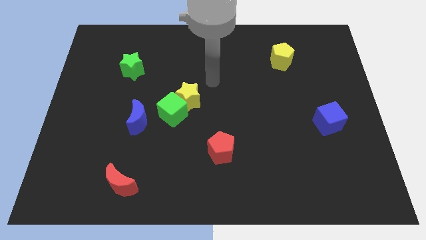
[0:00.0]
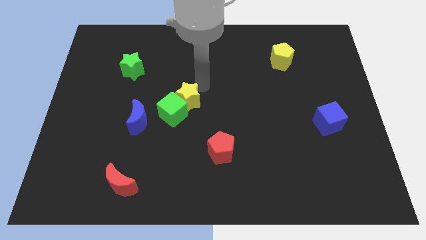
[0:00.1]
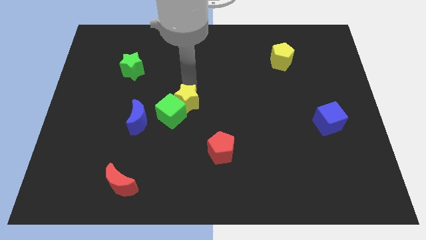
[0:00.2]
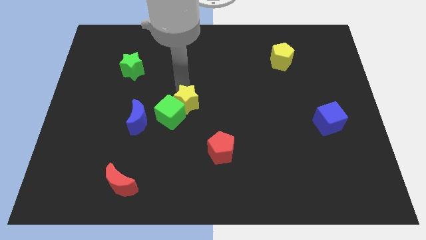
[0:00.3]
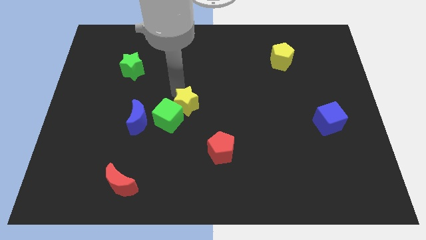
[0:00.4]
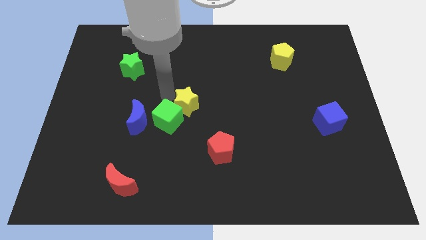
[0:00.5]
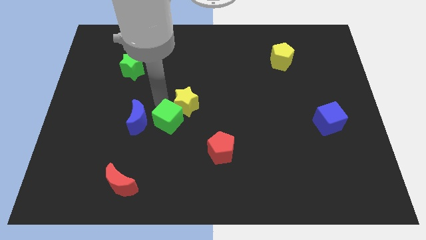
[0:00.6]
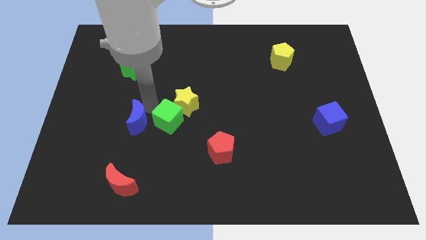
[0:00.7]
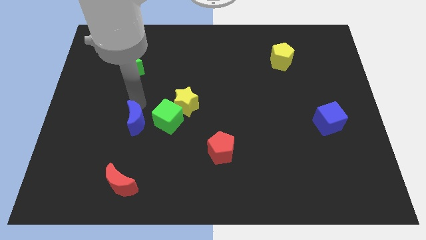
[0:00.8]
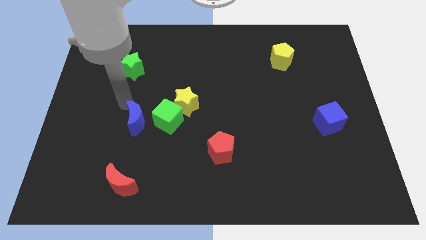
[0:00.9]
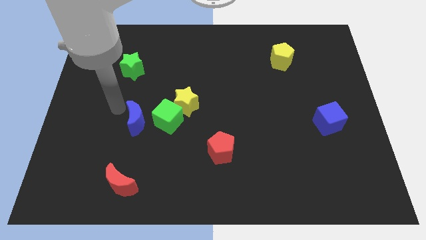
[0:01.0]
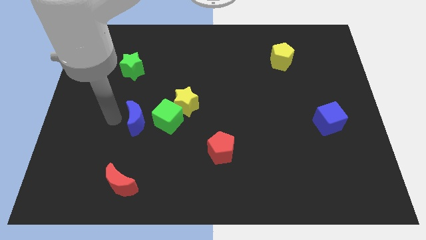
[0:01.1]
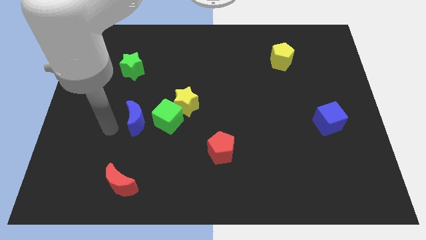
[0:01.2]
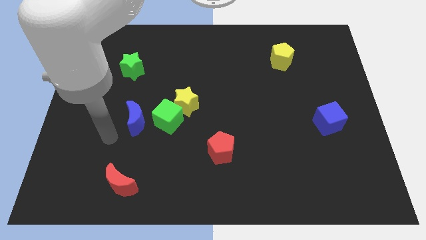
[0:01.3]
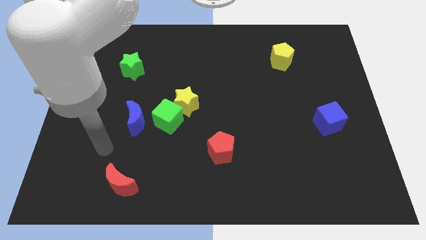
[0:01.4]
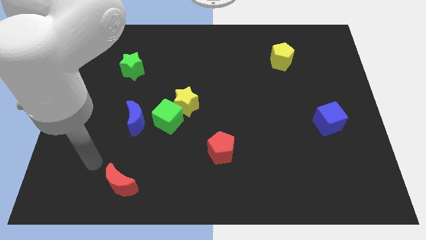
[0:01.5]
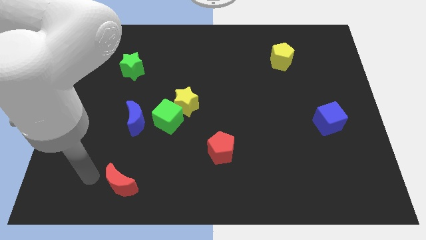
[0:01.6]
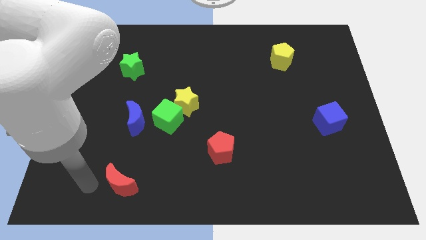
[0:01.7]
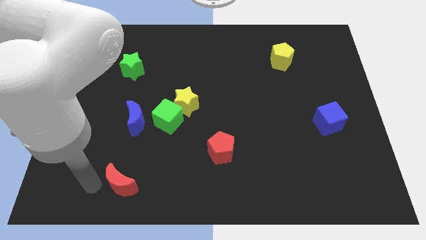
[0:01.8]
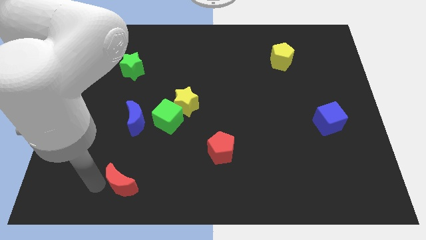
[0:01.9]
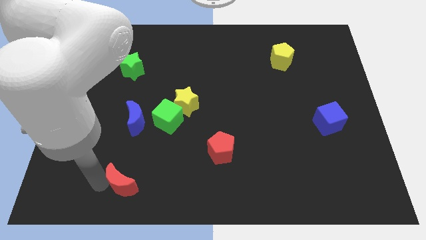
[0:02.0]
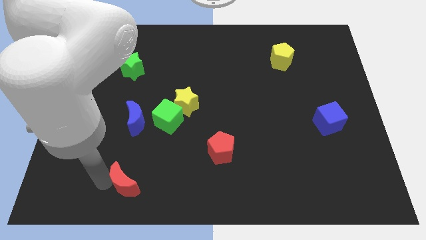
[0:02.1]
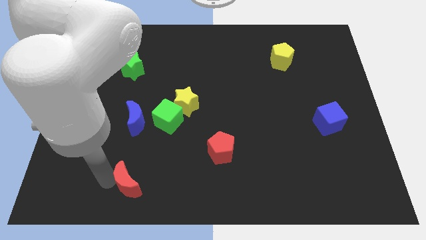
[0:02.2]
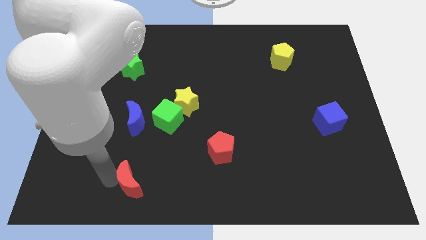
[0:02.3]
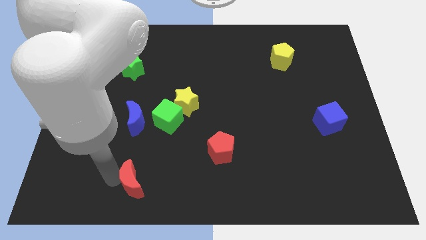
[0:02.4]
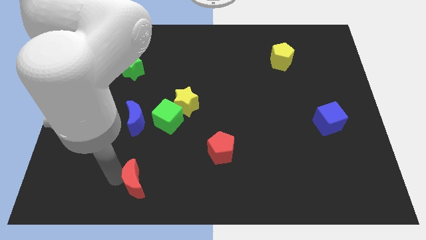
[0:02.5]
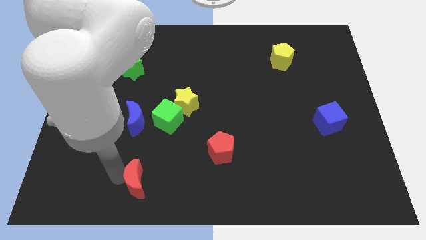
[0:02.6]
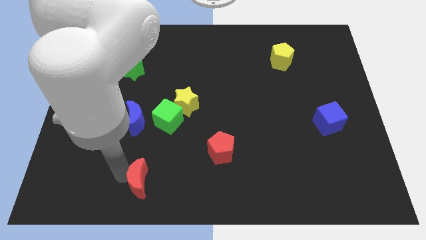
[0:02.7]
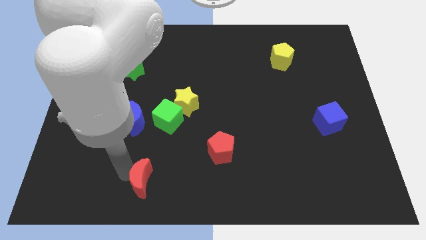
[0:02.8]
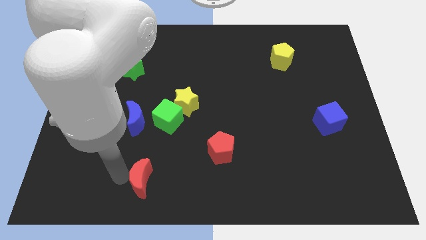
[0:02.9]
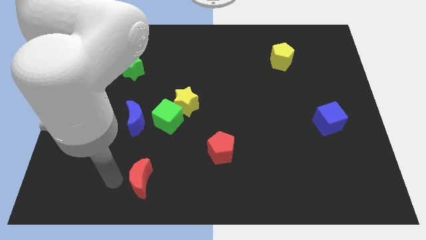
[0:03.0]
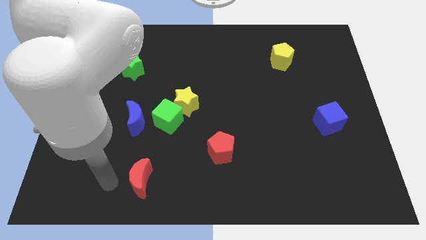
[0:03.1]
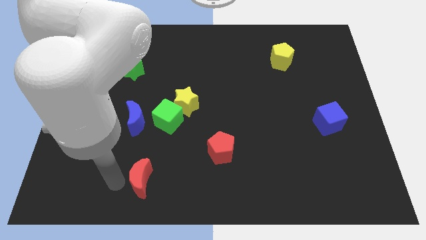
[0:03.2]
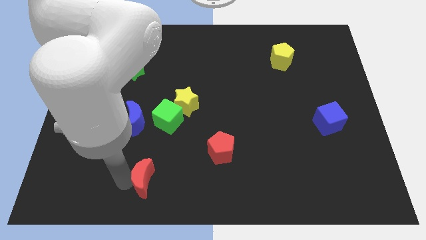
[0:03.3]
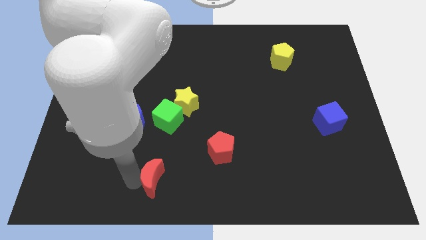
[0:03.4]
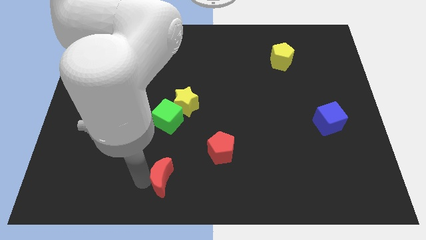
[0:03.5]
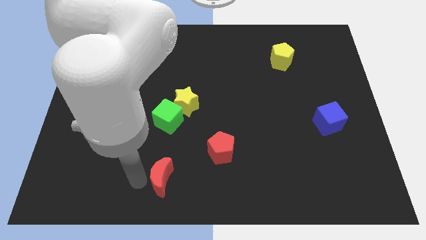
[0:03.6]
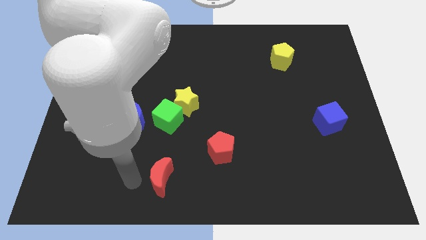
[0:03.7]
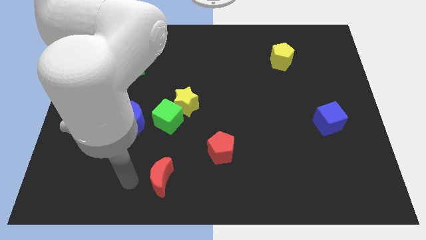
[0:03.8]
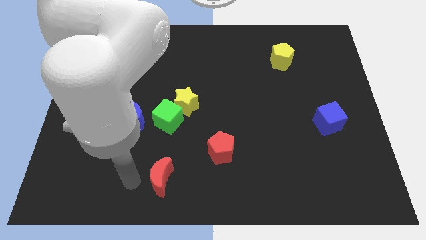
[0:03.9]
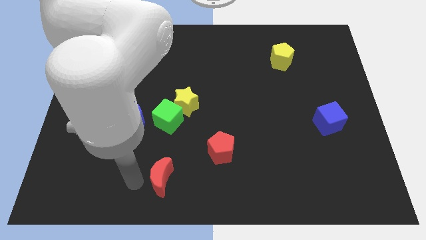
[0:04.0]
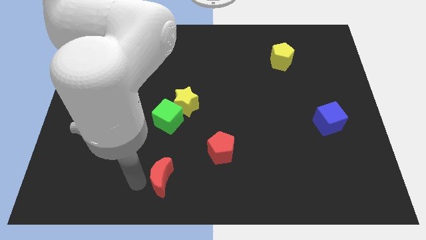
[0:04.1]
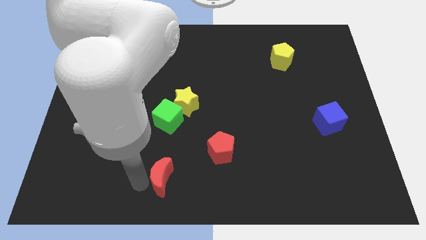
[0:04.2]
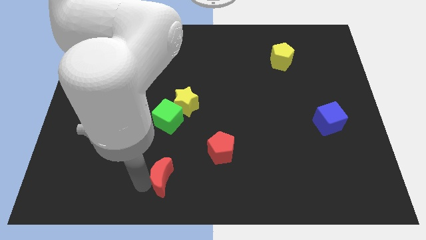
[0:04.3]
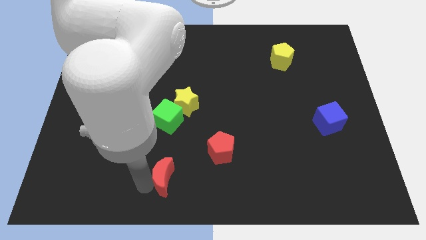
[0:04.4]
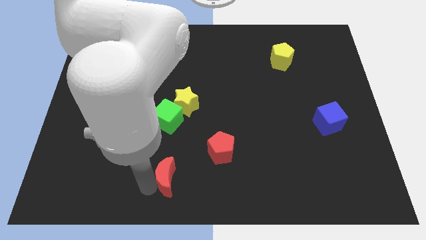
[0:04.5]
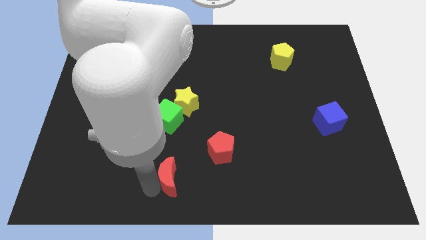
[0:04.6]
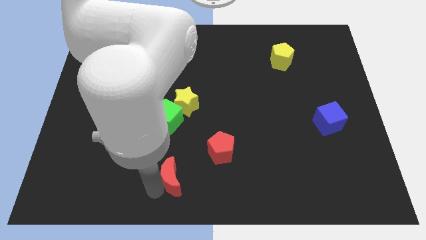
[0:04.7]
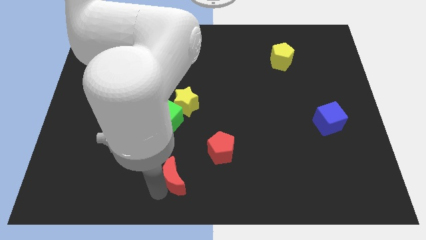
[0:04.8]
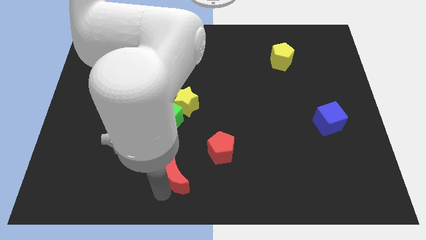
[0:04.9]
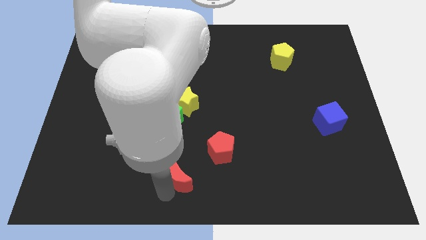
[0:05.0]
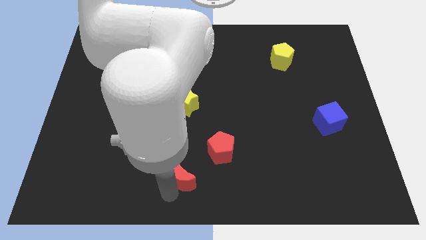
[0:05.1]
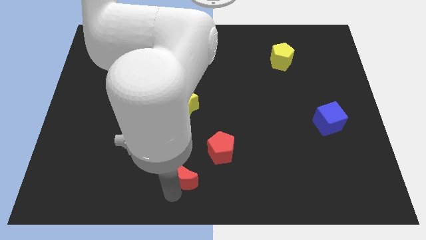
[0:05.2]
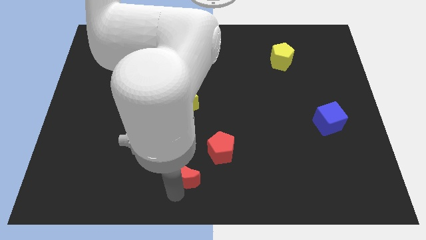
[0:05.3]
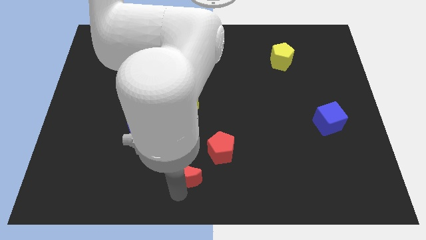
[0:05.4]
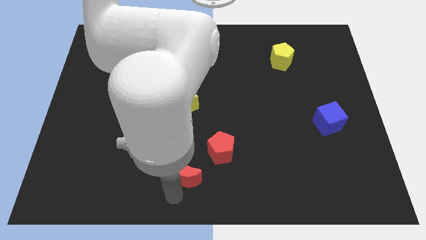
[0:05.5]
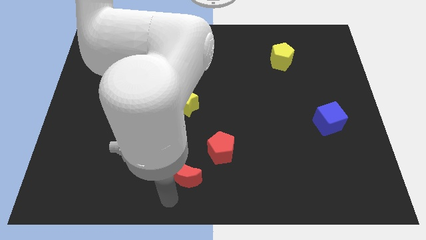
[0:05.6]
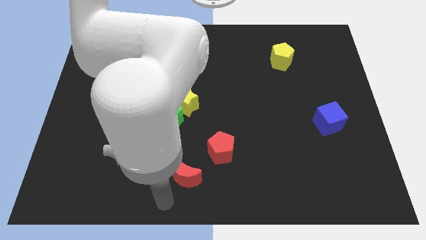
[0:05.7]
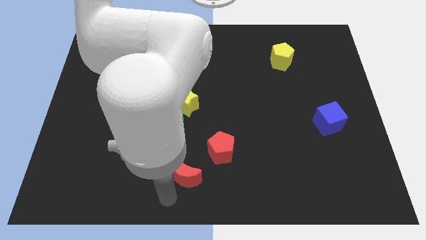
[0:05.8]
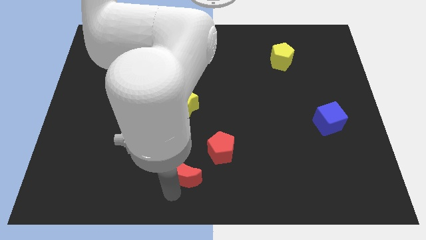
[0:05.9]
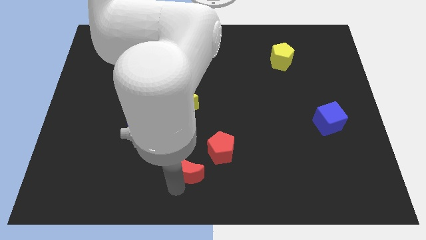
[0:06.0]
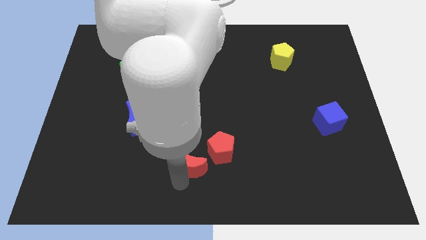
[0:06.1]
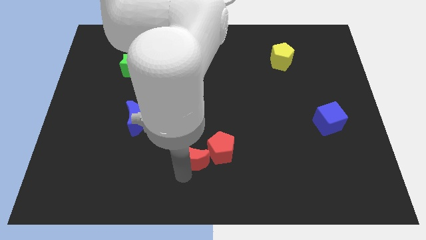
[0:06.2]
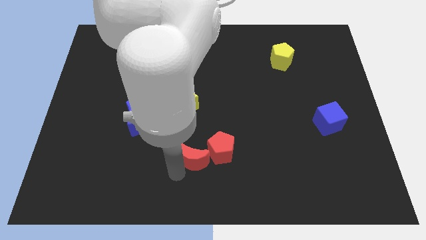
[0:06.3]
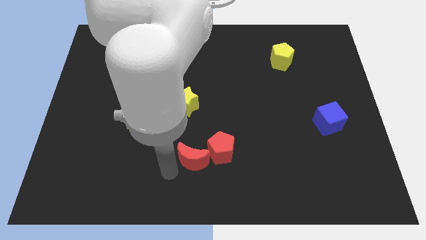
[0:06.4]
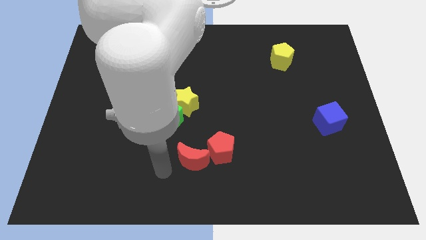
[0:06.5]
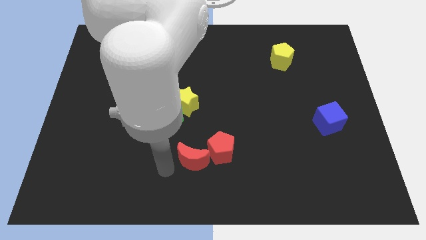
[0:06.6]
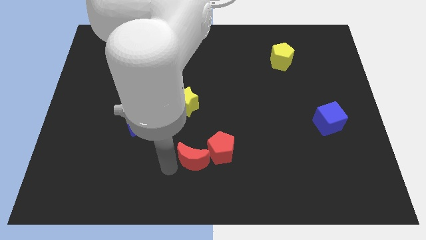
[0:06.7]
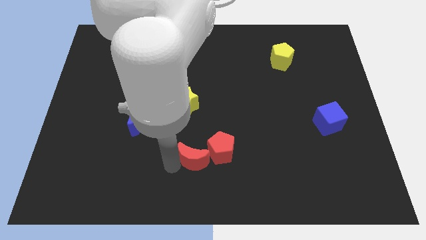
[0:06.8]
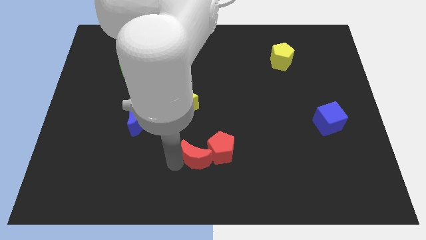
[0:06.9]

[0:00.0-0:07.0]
put the red moon next to the red pentagon
